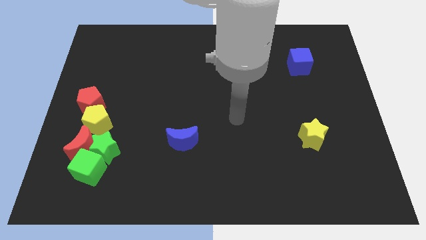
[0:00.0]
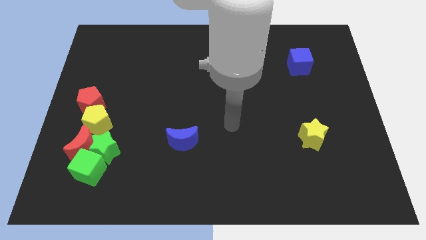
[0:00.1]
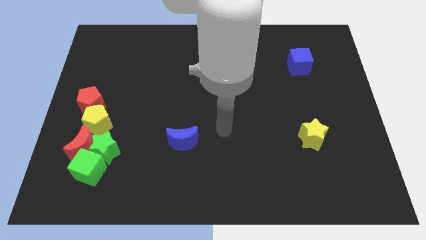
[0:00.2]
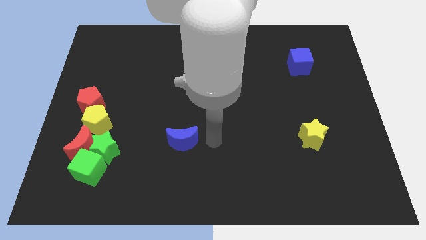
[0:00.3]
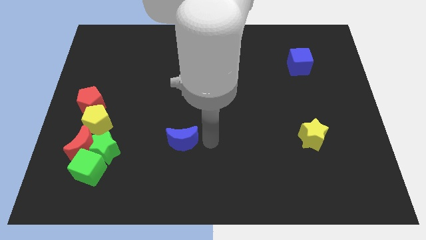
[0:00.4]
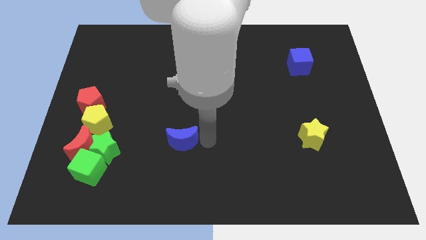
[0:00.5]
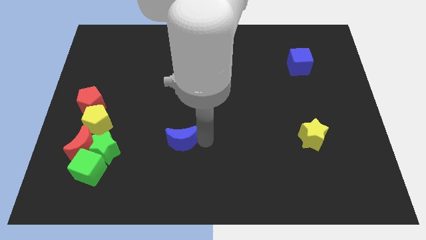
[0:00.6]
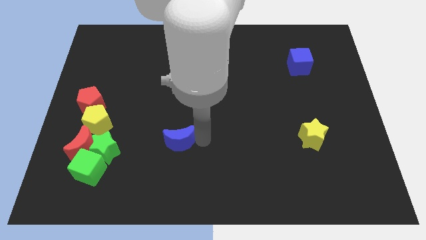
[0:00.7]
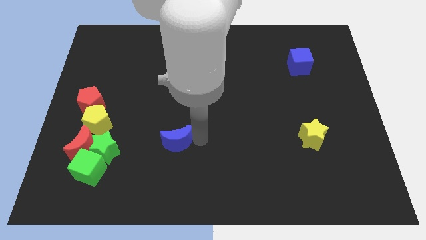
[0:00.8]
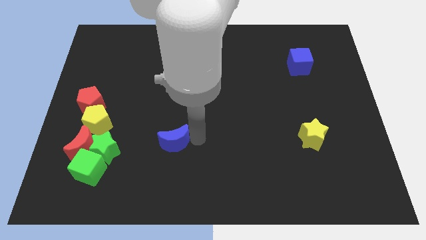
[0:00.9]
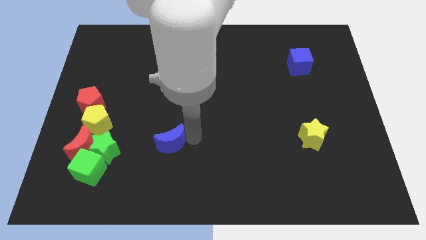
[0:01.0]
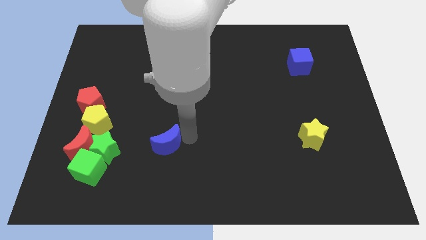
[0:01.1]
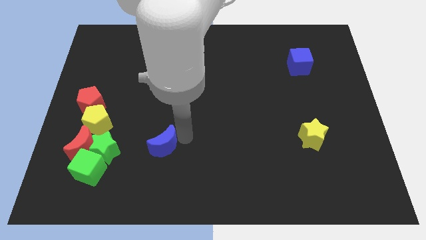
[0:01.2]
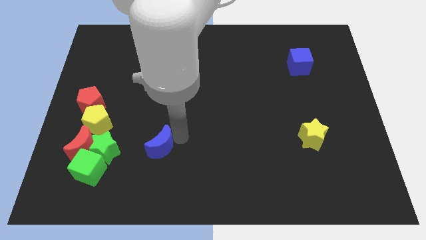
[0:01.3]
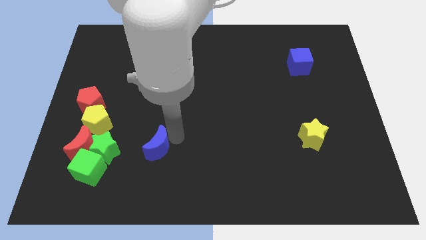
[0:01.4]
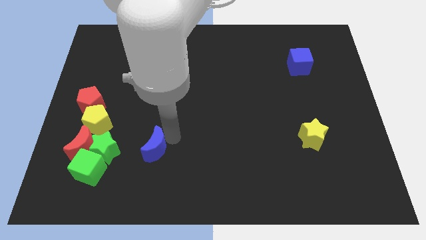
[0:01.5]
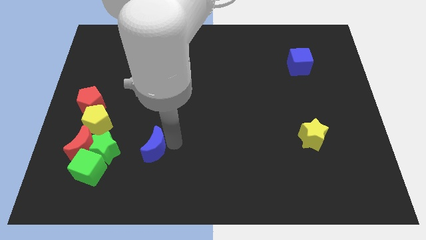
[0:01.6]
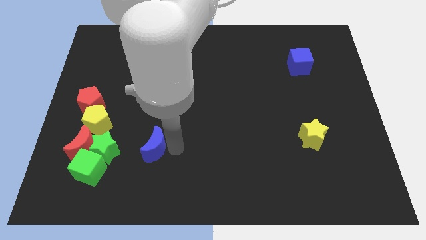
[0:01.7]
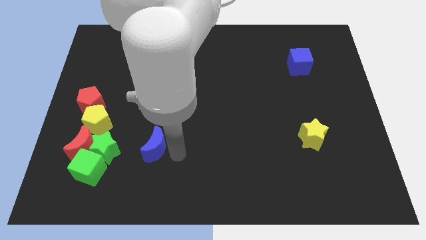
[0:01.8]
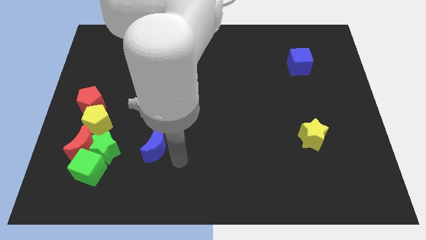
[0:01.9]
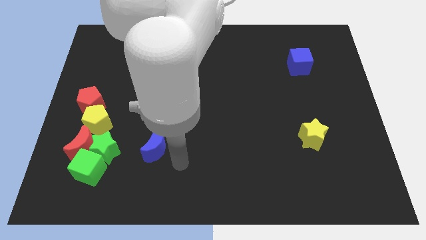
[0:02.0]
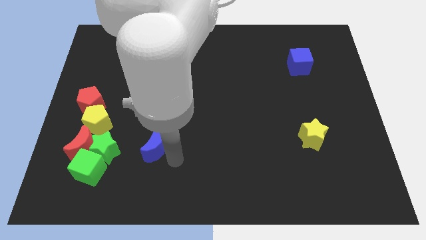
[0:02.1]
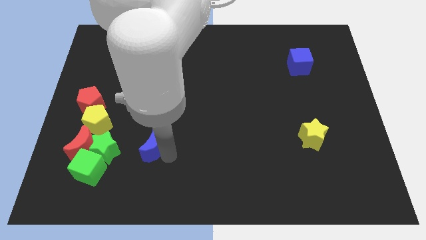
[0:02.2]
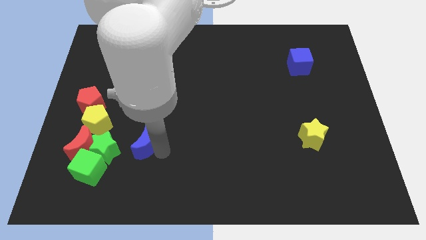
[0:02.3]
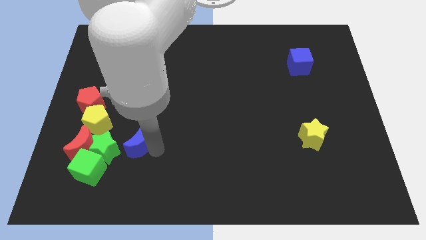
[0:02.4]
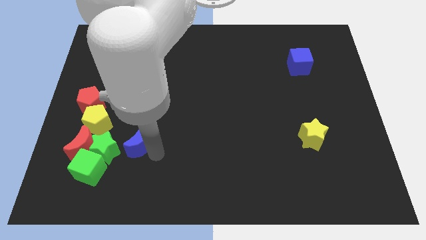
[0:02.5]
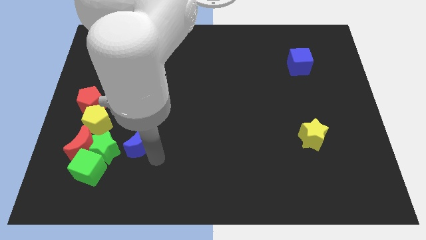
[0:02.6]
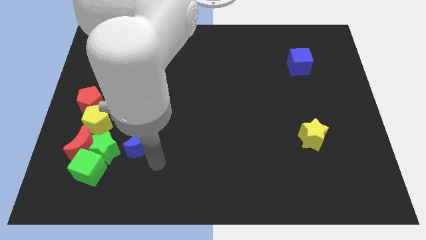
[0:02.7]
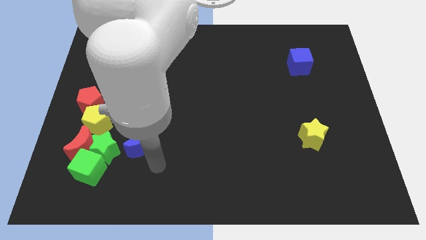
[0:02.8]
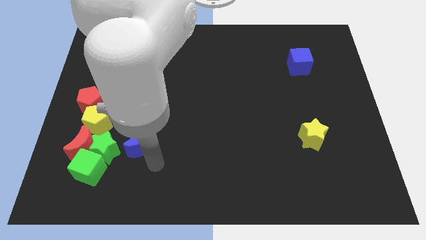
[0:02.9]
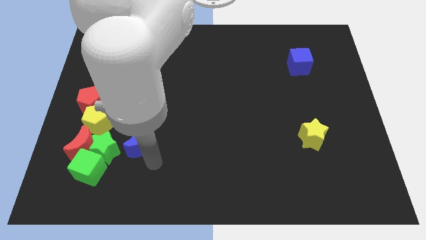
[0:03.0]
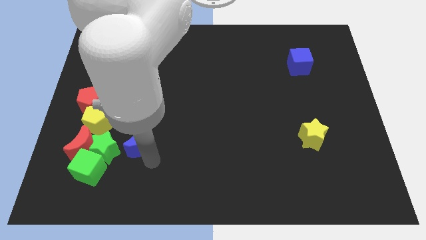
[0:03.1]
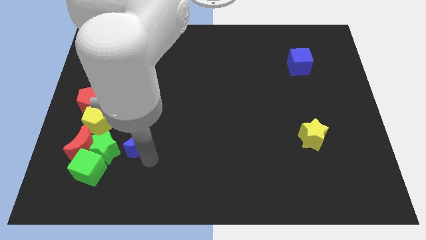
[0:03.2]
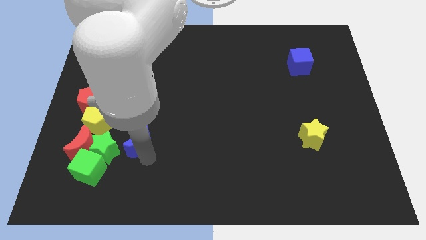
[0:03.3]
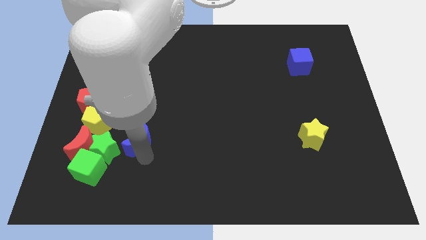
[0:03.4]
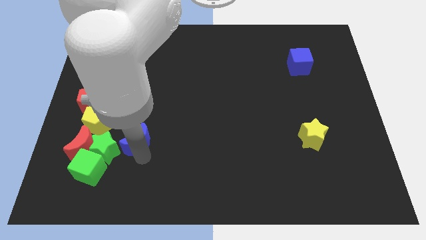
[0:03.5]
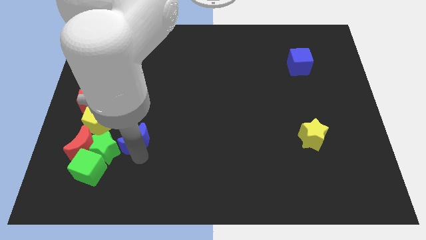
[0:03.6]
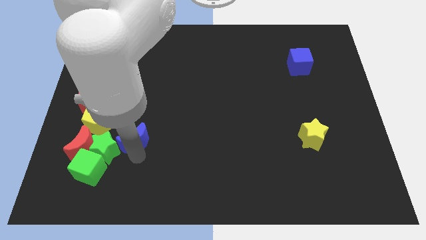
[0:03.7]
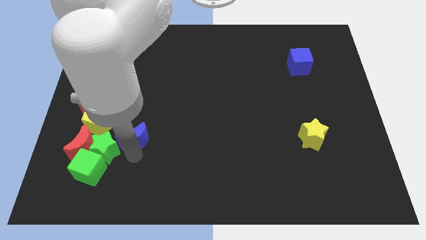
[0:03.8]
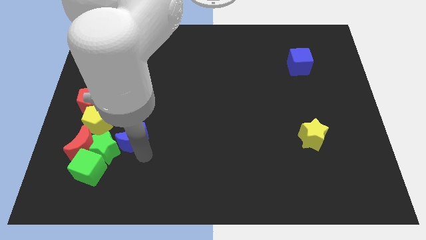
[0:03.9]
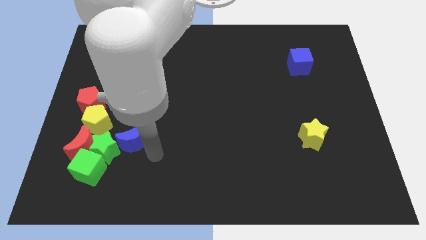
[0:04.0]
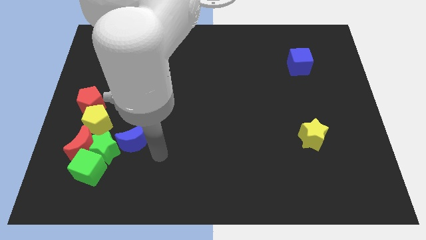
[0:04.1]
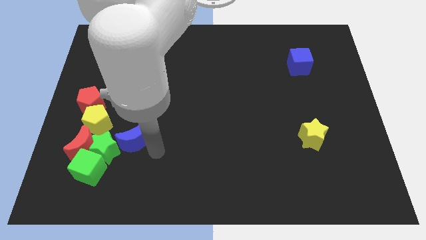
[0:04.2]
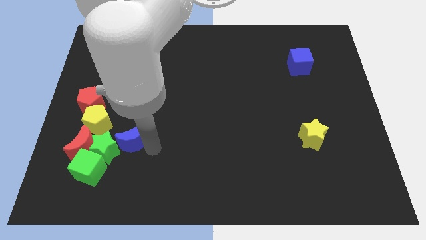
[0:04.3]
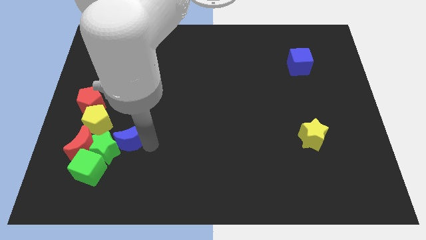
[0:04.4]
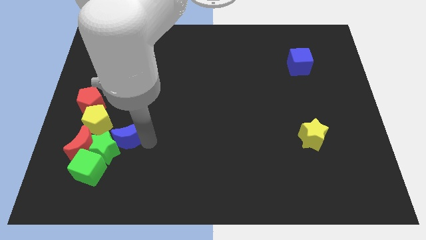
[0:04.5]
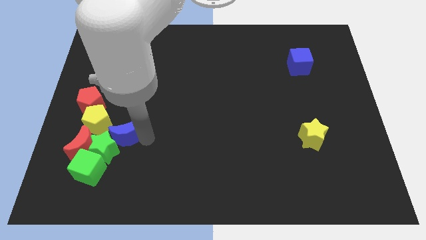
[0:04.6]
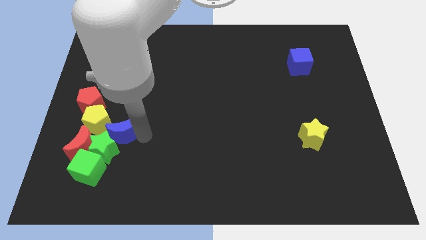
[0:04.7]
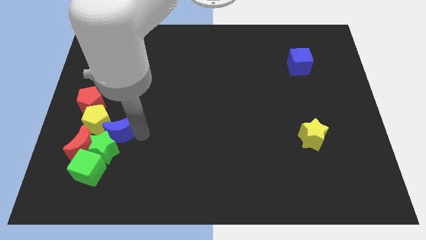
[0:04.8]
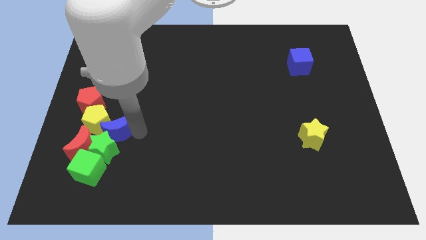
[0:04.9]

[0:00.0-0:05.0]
push the blue moon close to the yellow pentagon

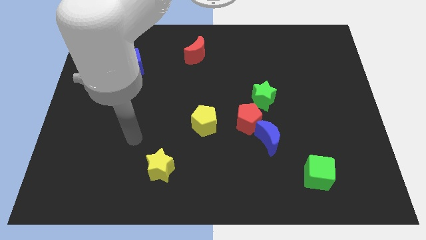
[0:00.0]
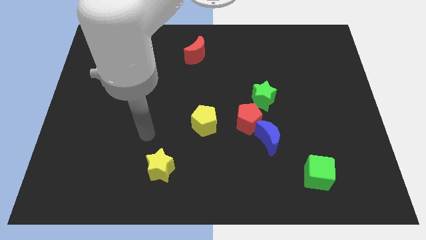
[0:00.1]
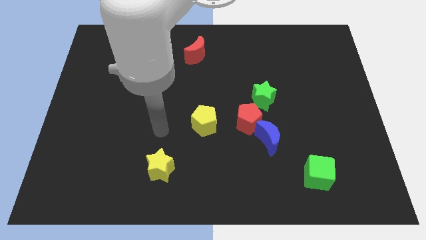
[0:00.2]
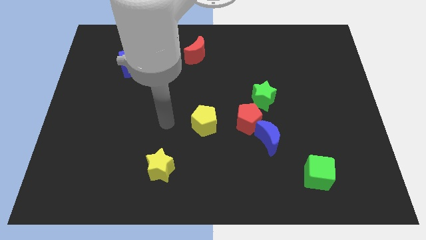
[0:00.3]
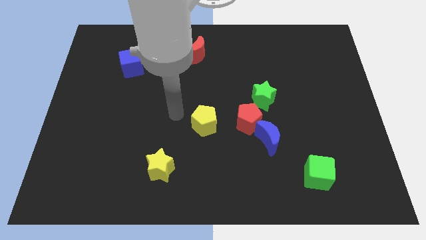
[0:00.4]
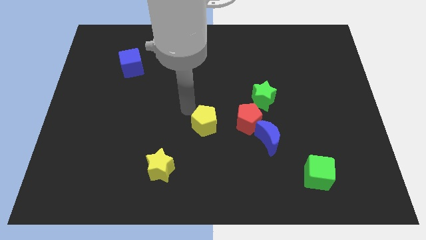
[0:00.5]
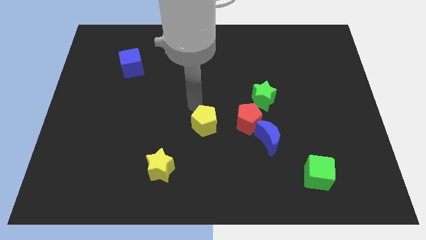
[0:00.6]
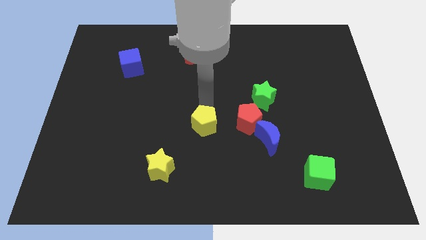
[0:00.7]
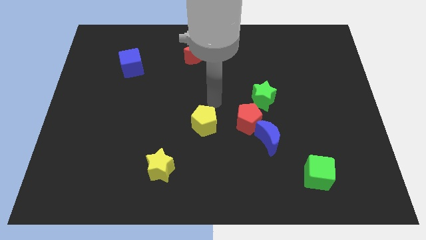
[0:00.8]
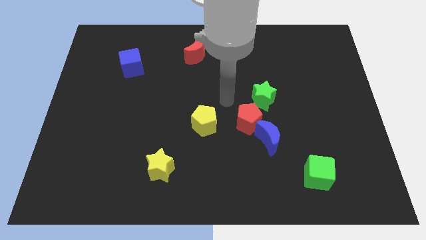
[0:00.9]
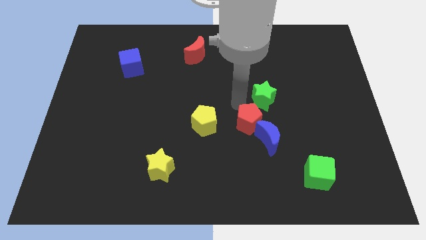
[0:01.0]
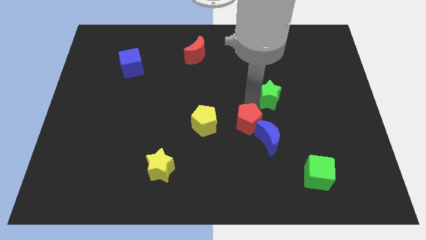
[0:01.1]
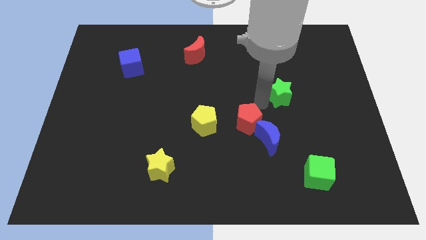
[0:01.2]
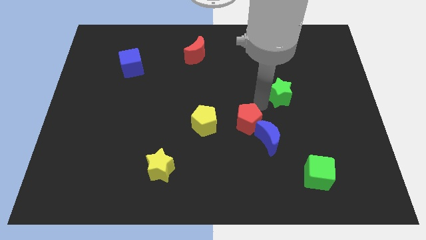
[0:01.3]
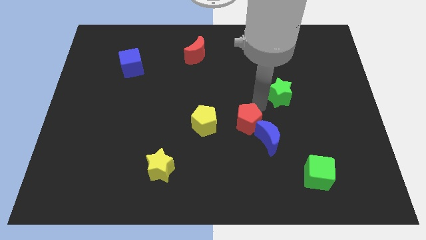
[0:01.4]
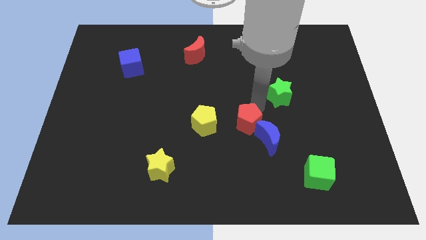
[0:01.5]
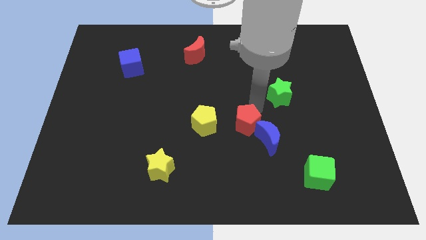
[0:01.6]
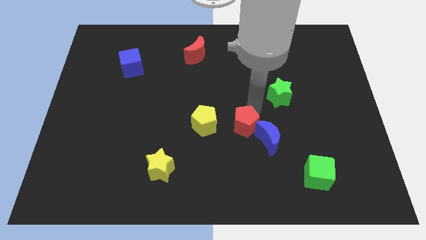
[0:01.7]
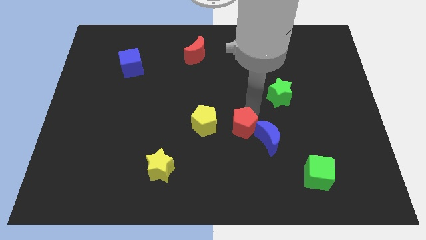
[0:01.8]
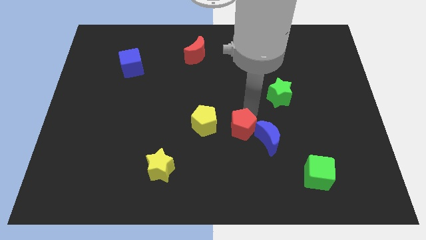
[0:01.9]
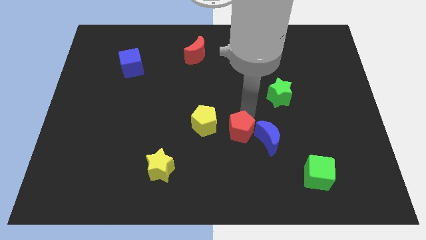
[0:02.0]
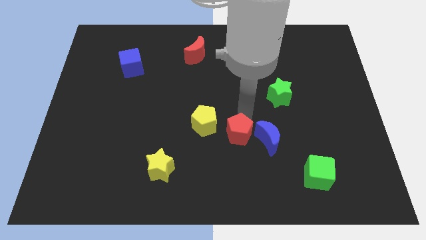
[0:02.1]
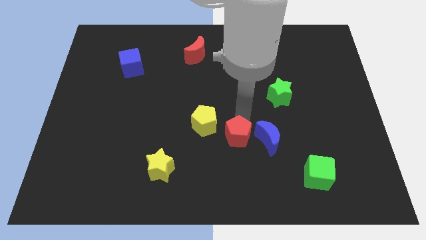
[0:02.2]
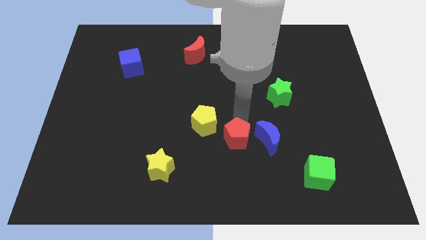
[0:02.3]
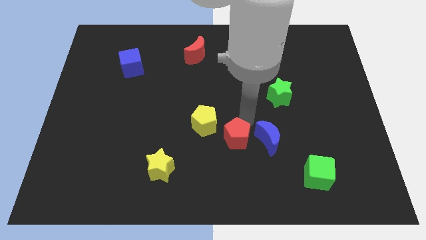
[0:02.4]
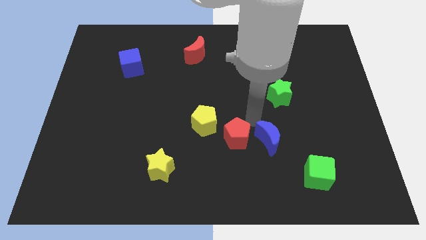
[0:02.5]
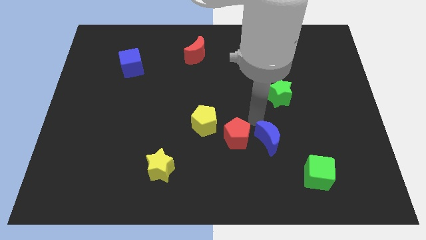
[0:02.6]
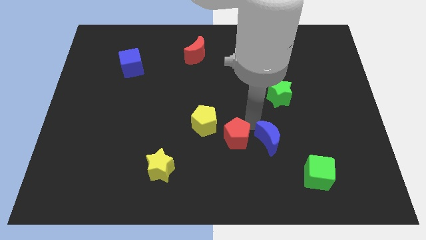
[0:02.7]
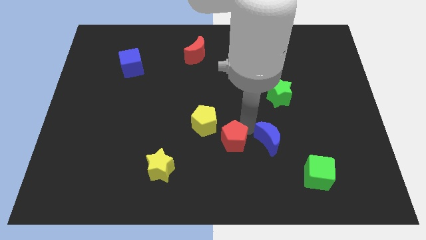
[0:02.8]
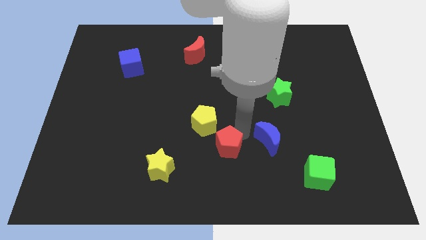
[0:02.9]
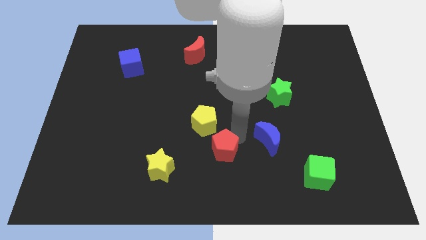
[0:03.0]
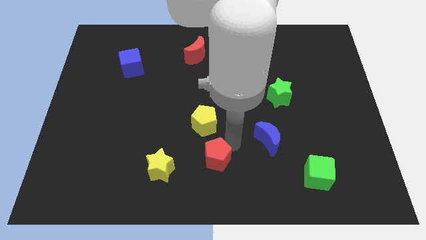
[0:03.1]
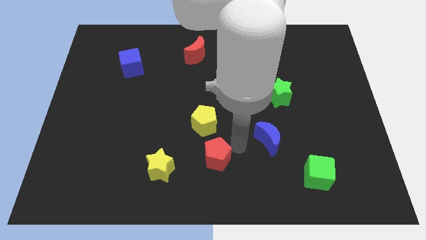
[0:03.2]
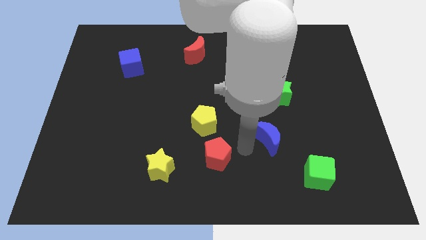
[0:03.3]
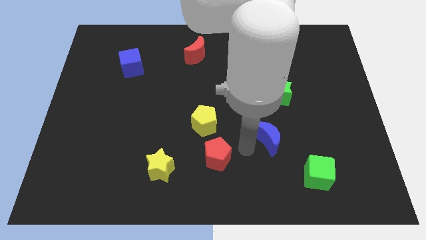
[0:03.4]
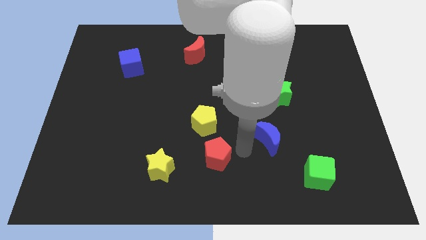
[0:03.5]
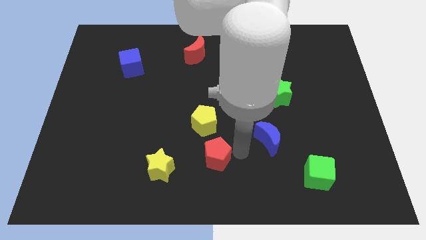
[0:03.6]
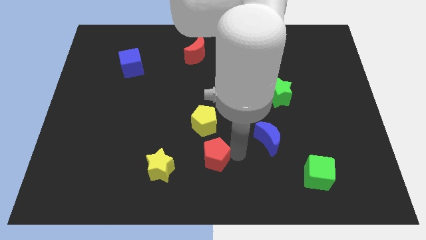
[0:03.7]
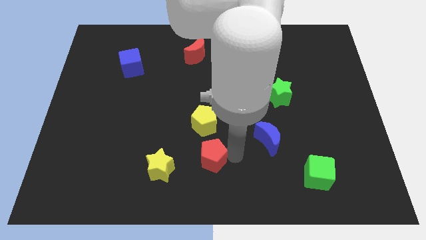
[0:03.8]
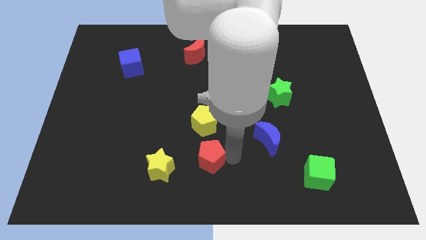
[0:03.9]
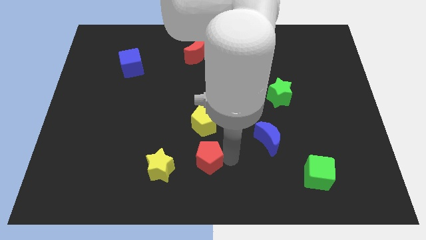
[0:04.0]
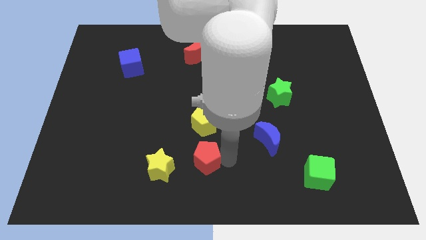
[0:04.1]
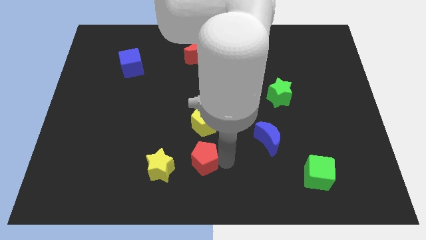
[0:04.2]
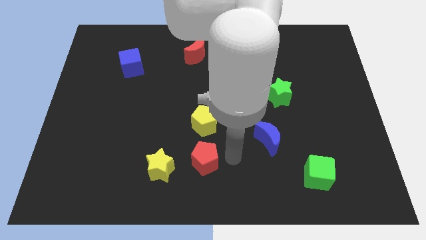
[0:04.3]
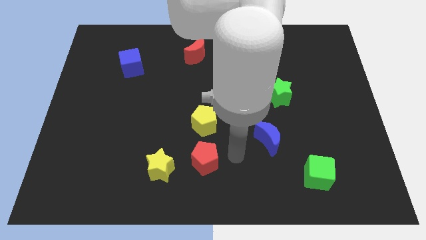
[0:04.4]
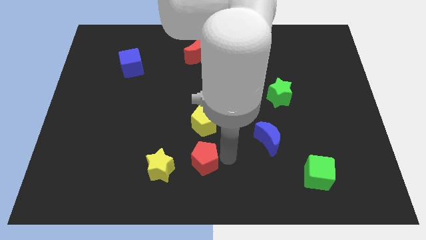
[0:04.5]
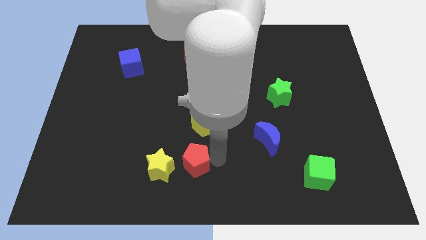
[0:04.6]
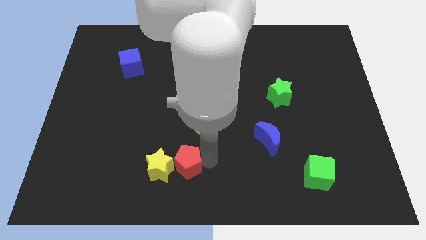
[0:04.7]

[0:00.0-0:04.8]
move the red pentagon to the yellow star
